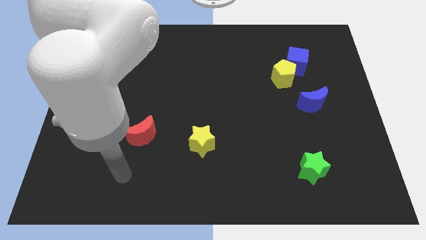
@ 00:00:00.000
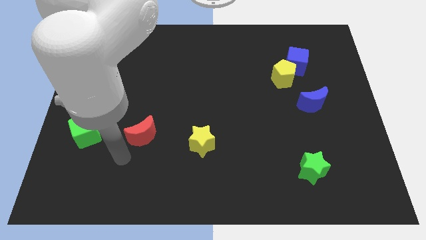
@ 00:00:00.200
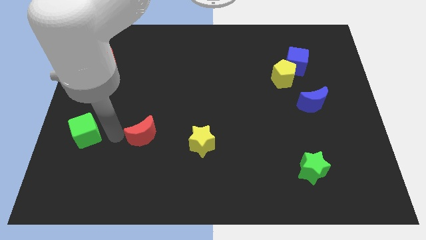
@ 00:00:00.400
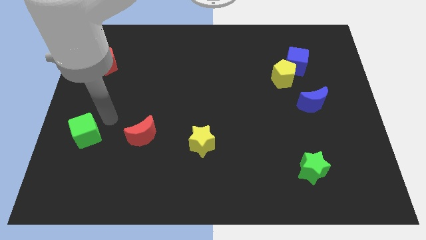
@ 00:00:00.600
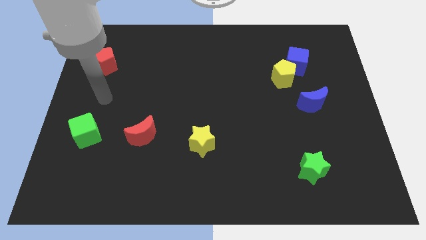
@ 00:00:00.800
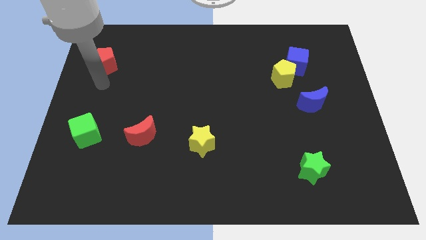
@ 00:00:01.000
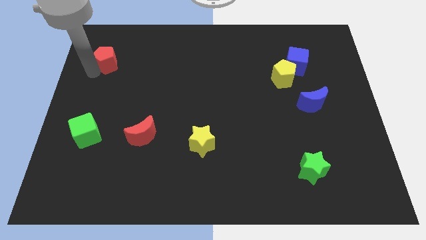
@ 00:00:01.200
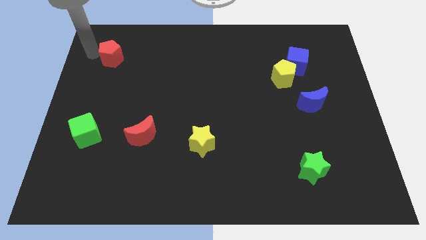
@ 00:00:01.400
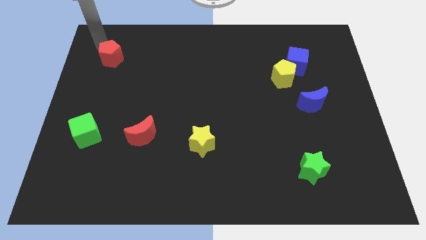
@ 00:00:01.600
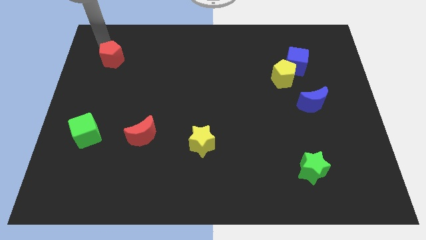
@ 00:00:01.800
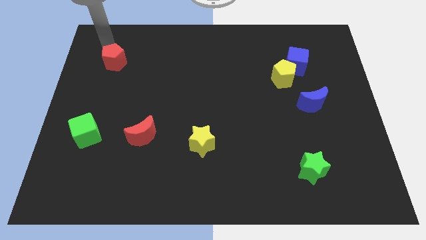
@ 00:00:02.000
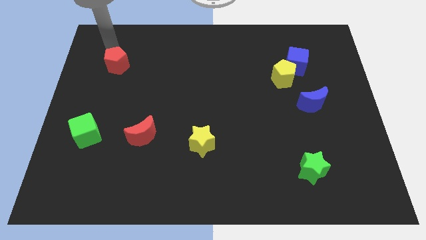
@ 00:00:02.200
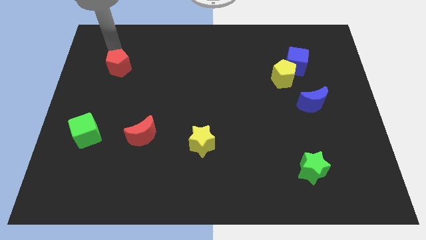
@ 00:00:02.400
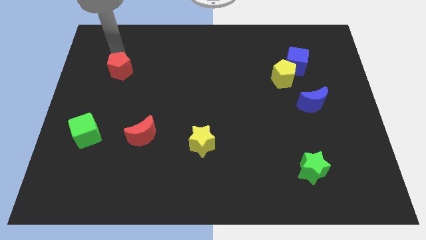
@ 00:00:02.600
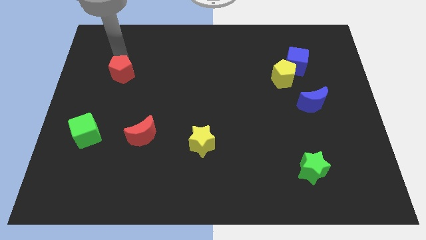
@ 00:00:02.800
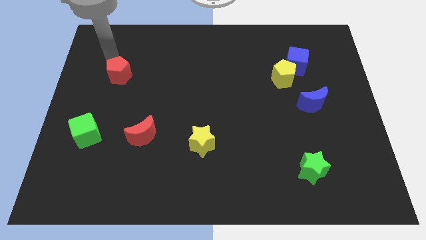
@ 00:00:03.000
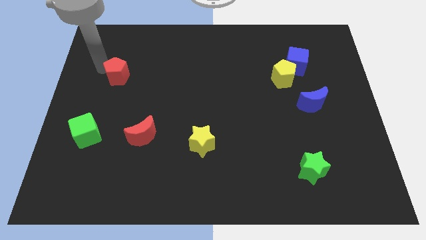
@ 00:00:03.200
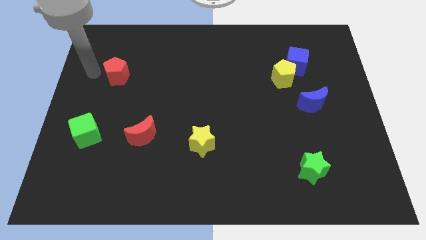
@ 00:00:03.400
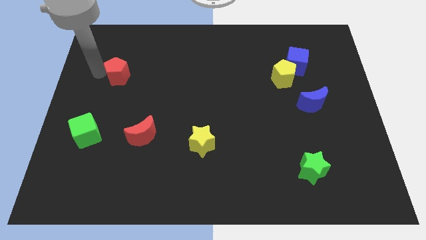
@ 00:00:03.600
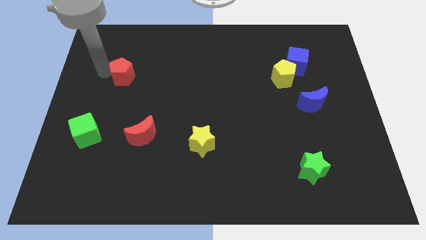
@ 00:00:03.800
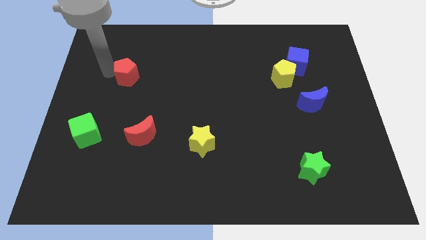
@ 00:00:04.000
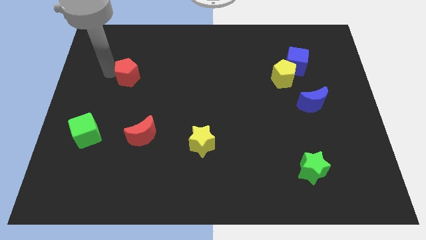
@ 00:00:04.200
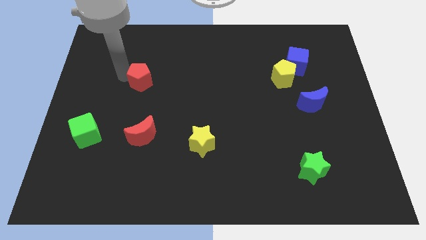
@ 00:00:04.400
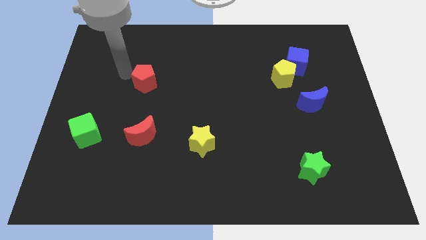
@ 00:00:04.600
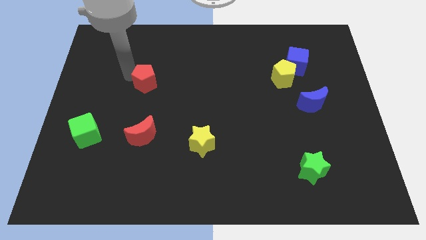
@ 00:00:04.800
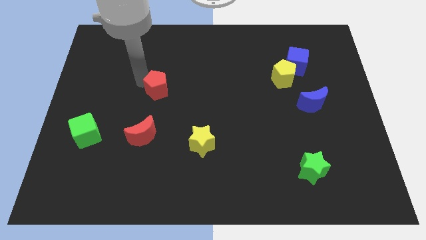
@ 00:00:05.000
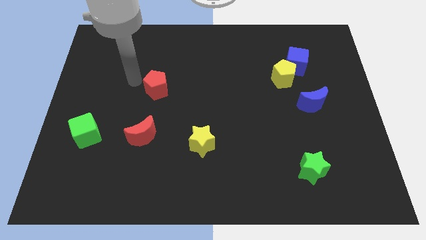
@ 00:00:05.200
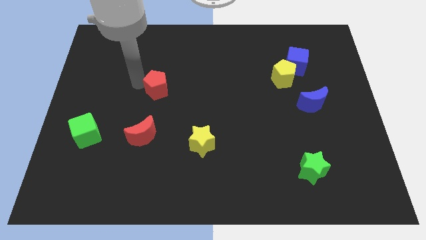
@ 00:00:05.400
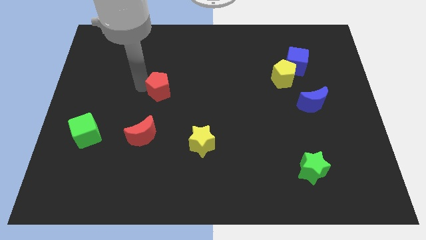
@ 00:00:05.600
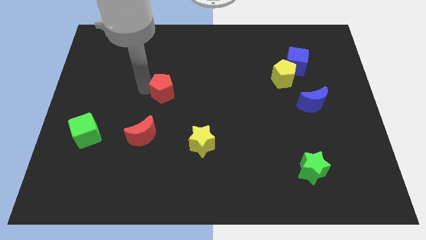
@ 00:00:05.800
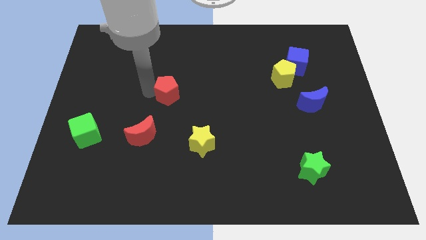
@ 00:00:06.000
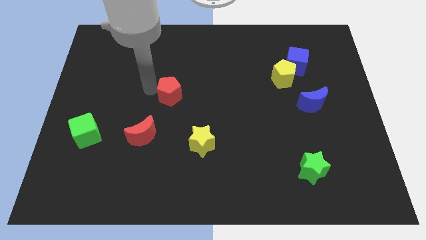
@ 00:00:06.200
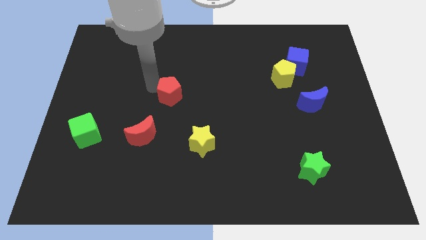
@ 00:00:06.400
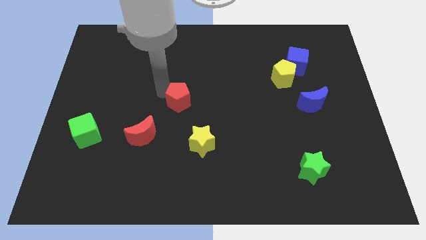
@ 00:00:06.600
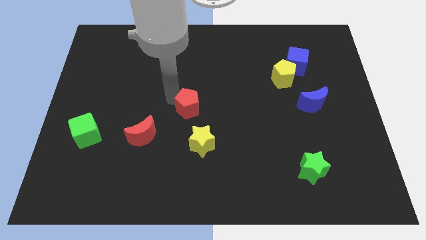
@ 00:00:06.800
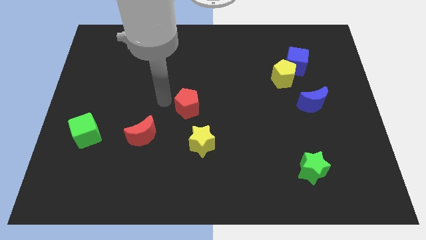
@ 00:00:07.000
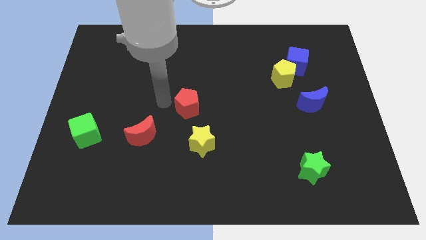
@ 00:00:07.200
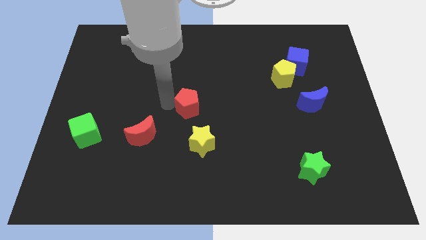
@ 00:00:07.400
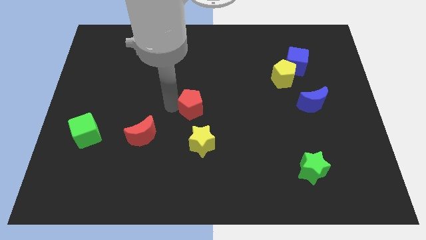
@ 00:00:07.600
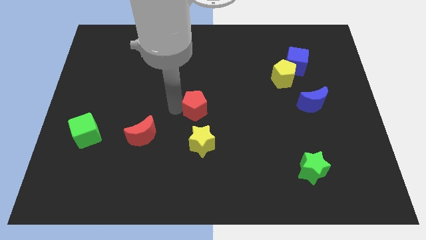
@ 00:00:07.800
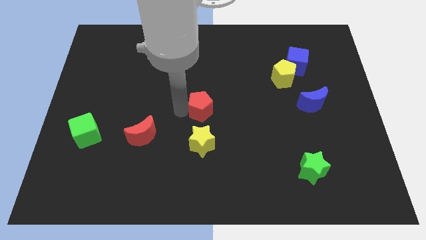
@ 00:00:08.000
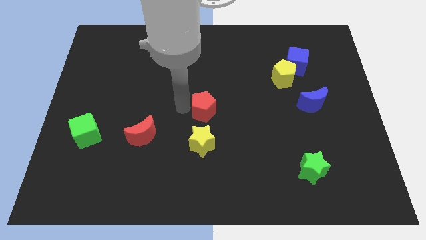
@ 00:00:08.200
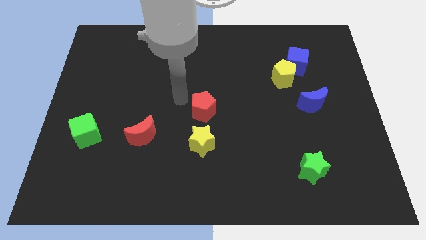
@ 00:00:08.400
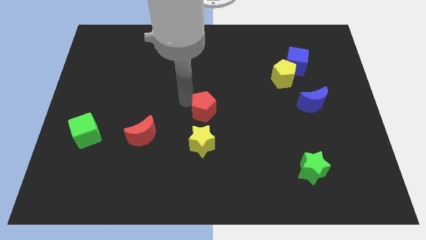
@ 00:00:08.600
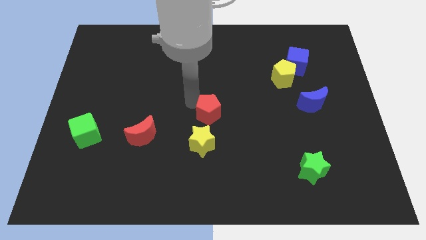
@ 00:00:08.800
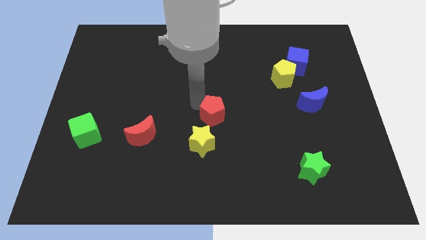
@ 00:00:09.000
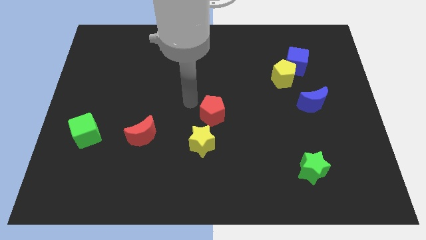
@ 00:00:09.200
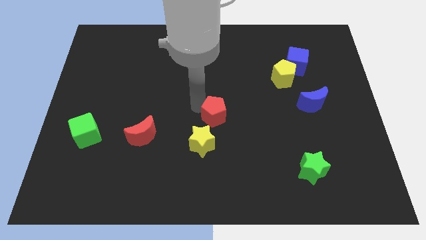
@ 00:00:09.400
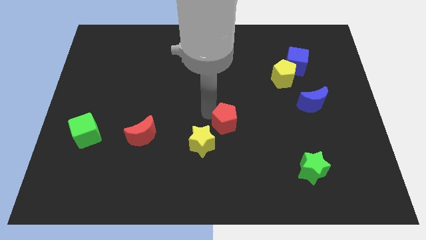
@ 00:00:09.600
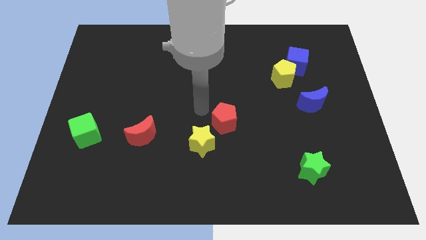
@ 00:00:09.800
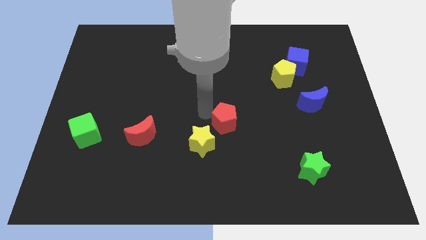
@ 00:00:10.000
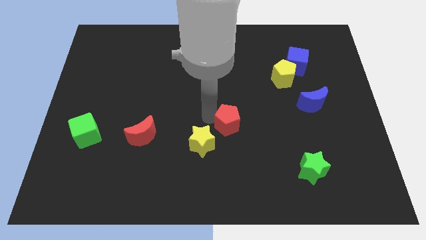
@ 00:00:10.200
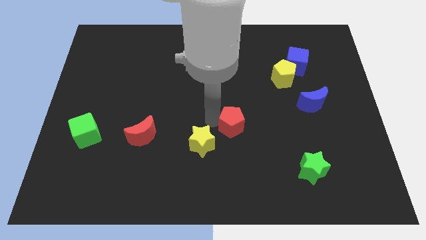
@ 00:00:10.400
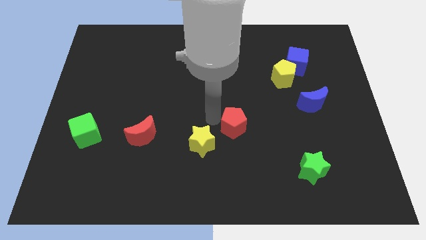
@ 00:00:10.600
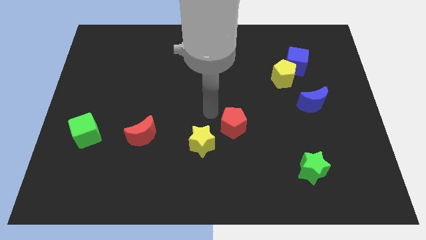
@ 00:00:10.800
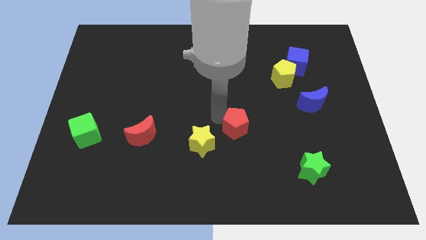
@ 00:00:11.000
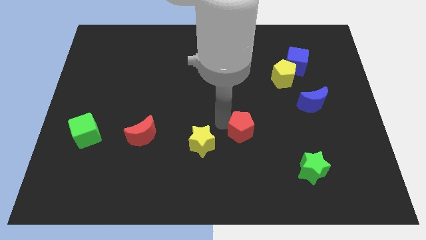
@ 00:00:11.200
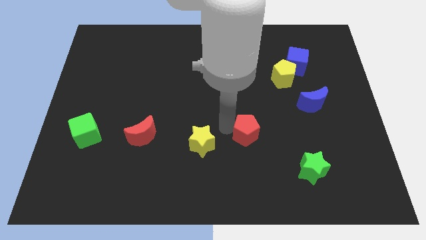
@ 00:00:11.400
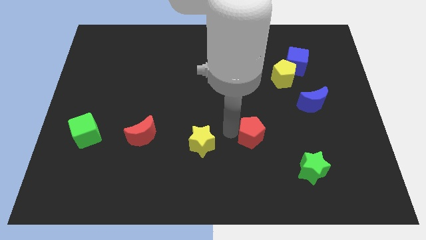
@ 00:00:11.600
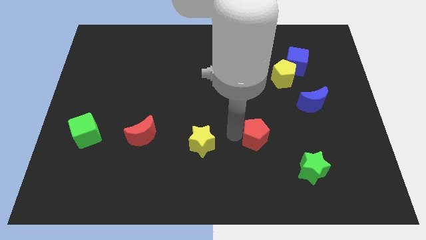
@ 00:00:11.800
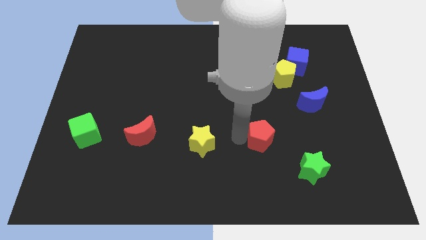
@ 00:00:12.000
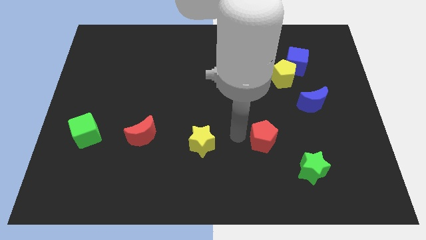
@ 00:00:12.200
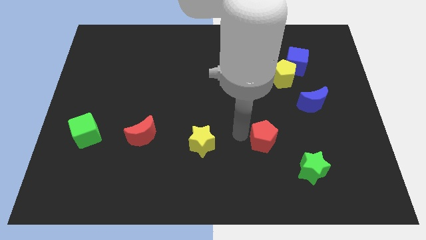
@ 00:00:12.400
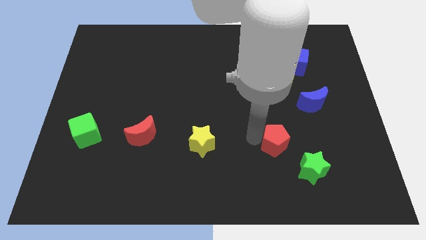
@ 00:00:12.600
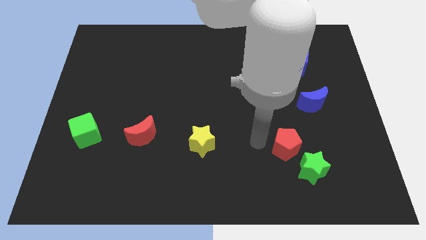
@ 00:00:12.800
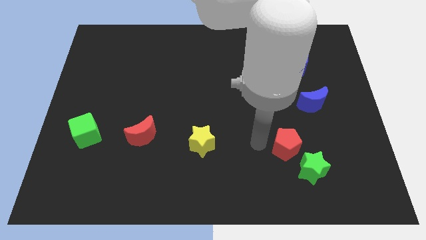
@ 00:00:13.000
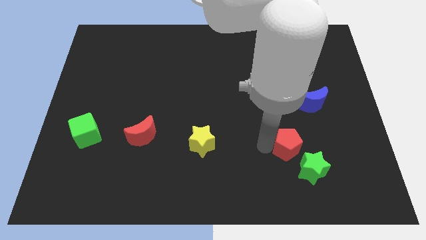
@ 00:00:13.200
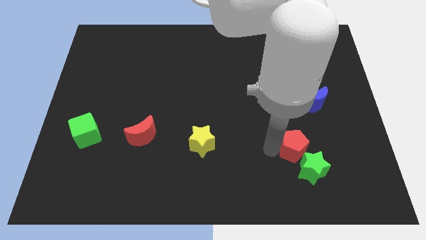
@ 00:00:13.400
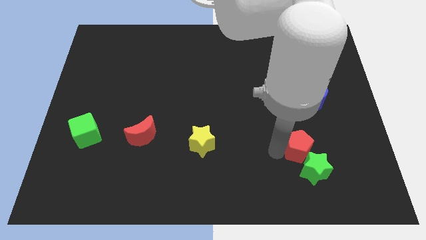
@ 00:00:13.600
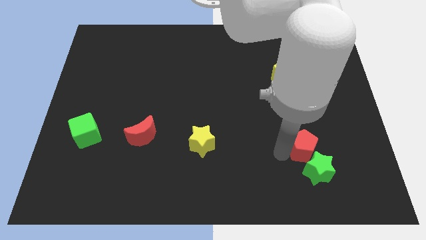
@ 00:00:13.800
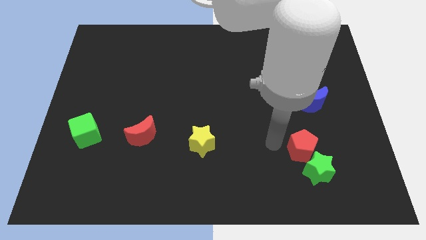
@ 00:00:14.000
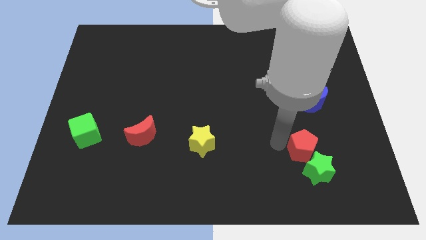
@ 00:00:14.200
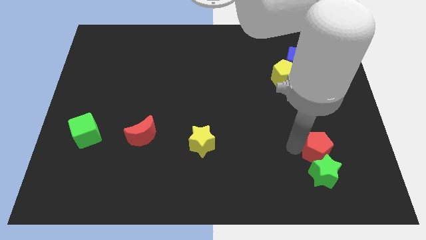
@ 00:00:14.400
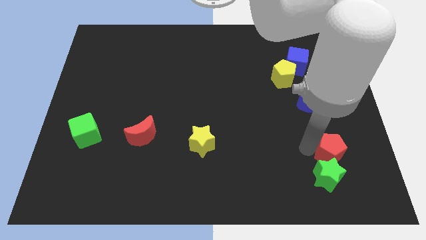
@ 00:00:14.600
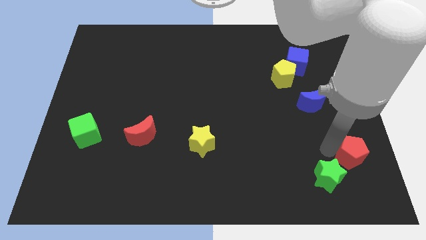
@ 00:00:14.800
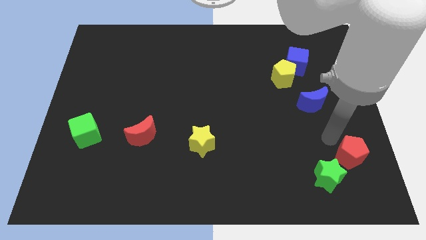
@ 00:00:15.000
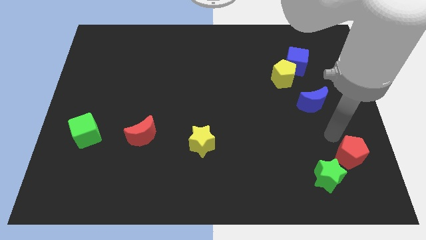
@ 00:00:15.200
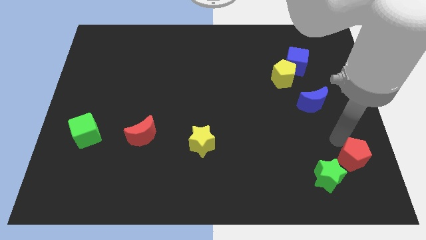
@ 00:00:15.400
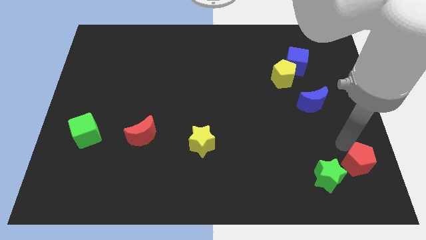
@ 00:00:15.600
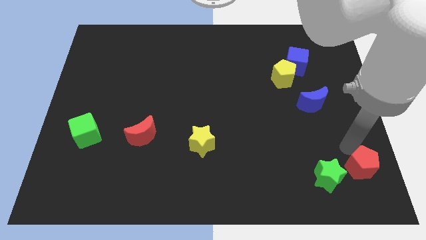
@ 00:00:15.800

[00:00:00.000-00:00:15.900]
move the red pentagon to the lower right corner
